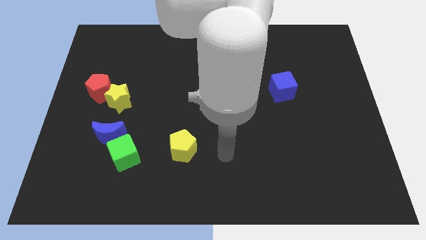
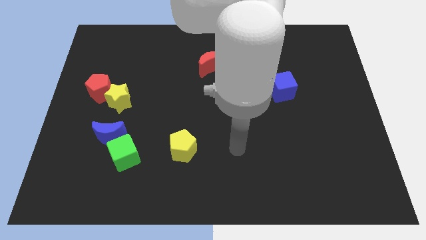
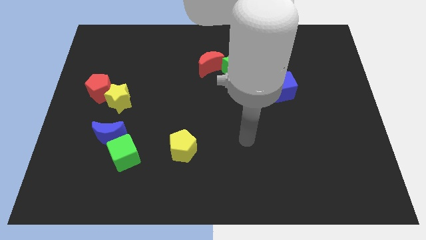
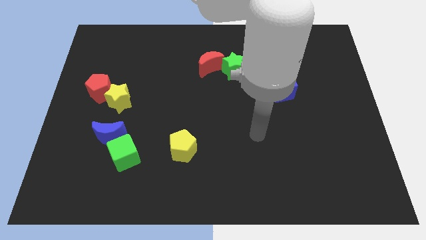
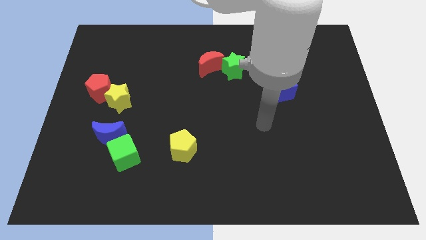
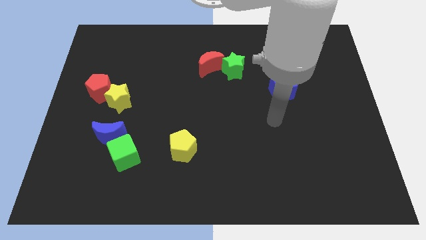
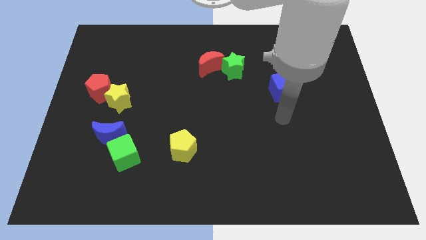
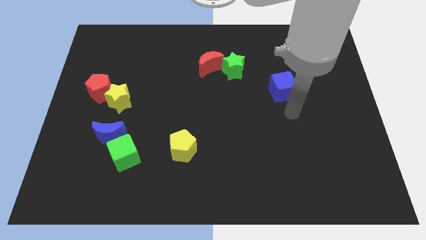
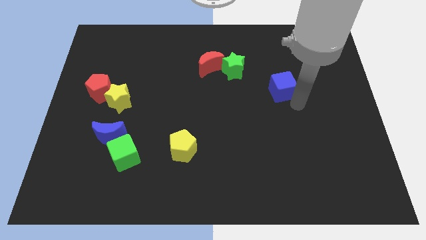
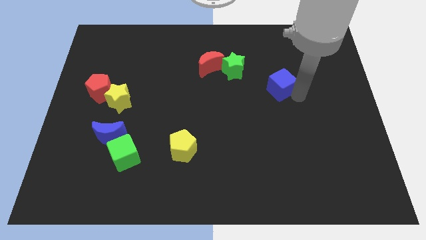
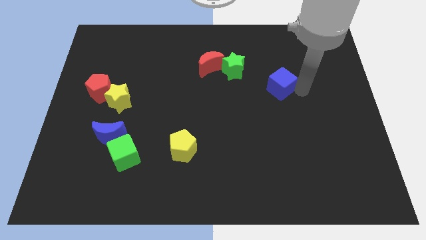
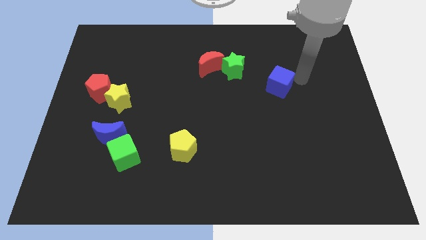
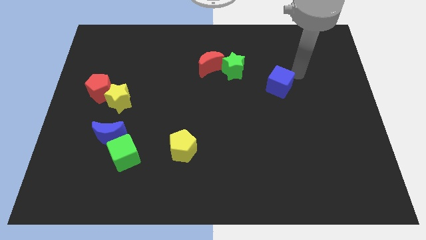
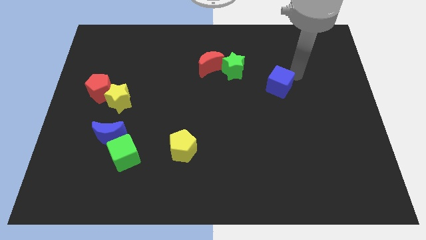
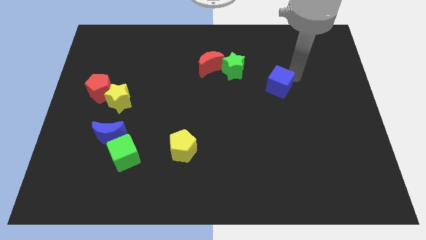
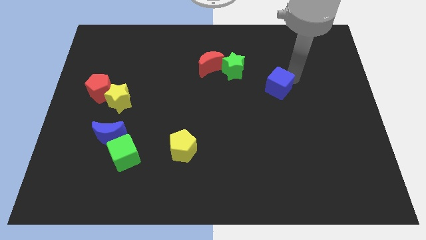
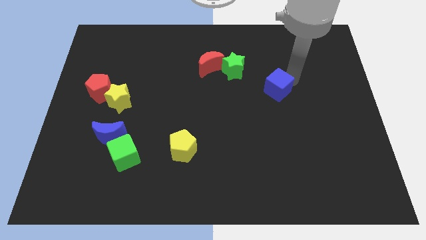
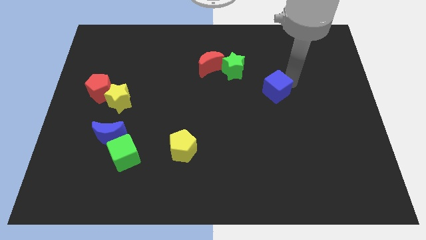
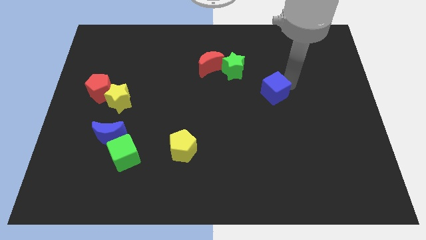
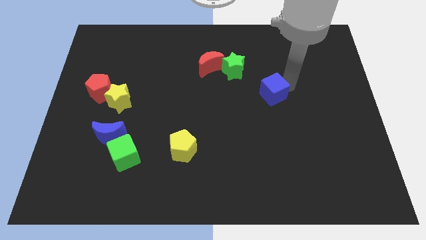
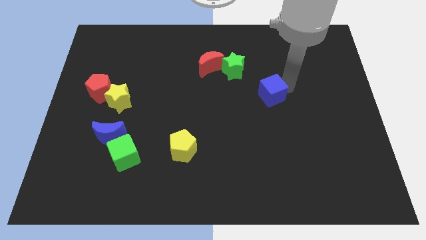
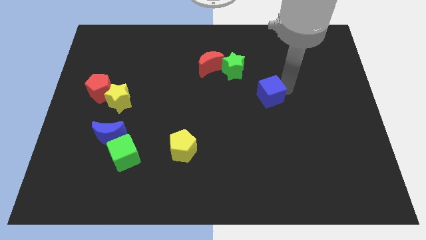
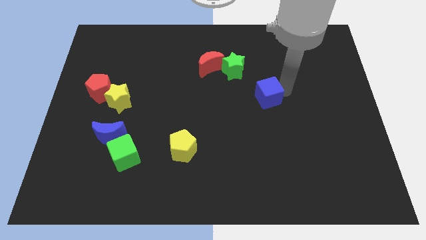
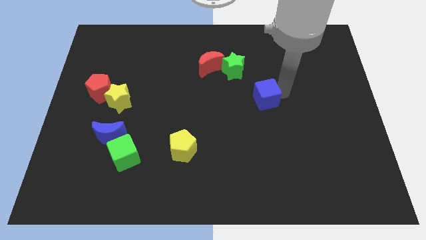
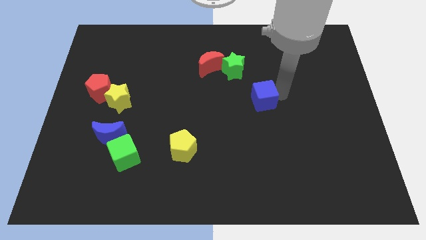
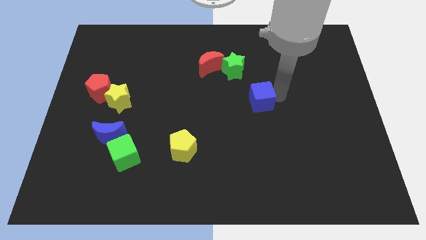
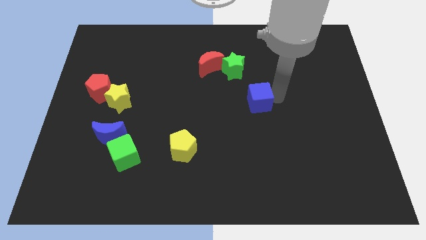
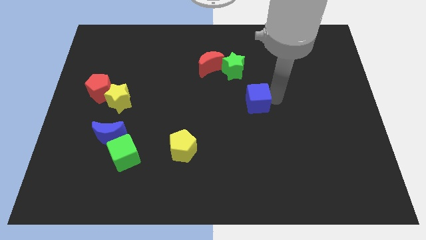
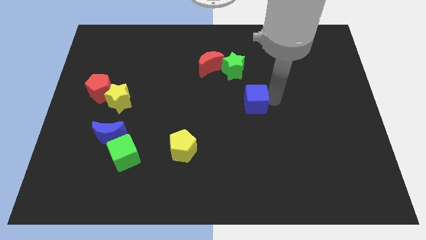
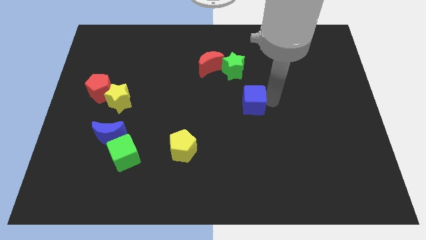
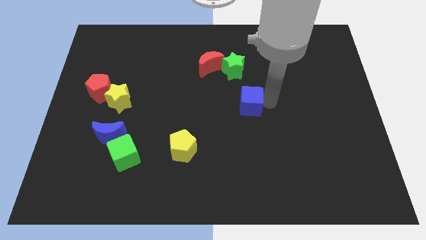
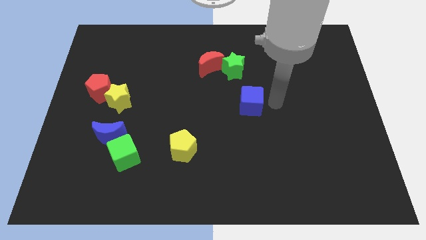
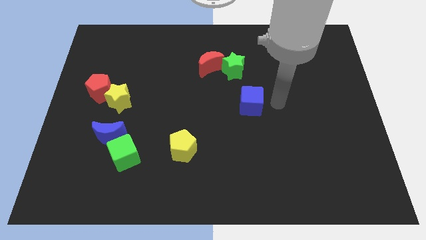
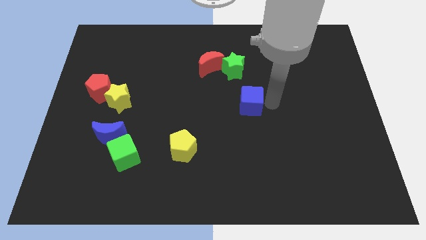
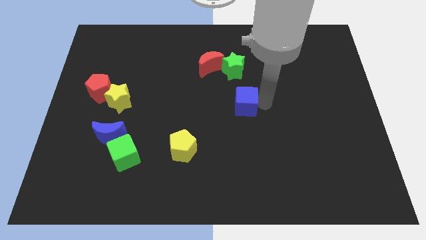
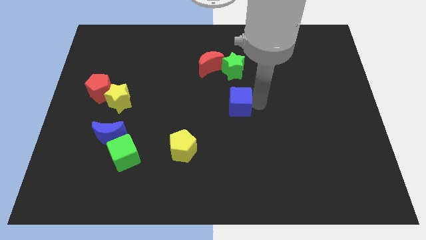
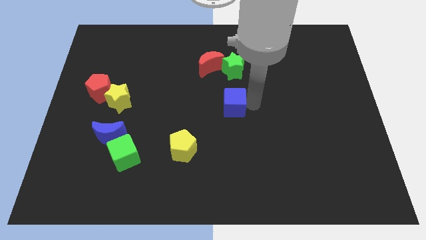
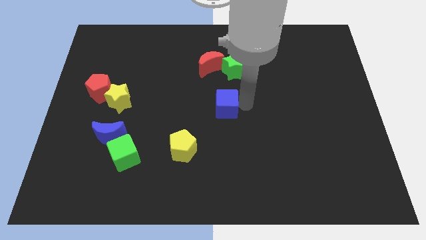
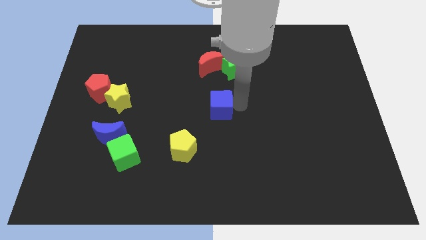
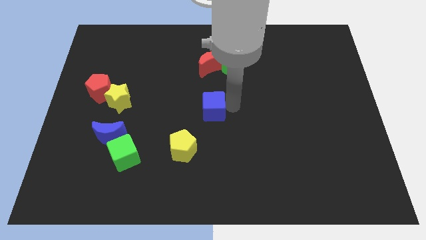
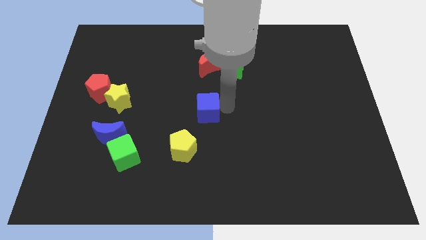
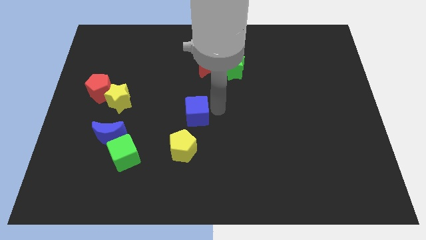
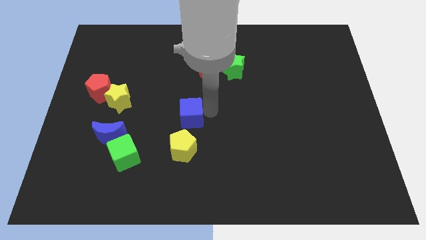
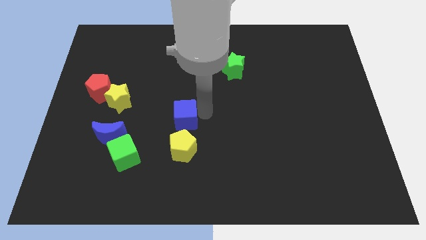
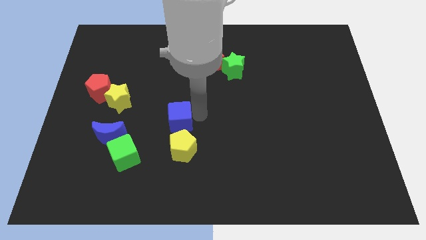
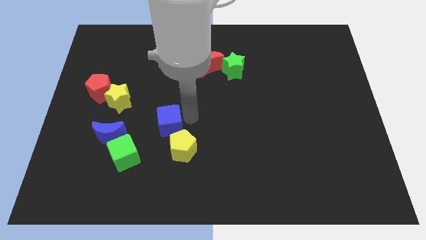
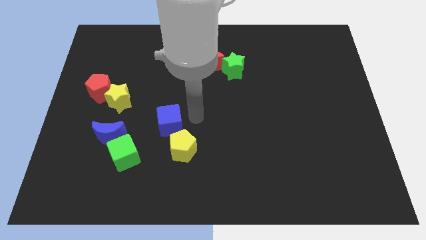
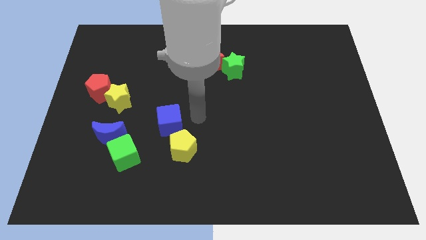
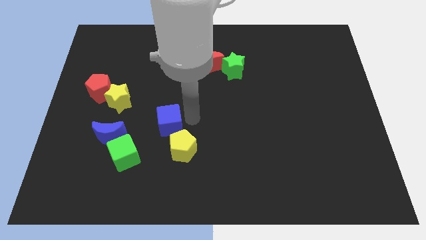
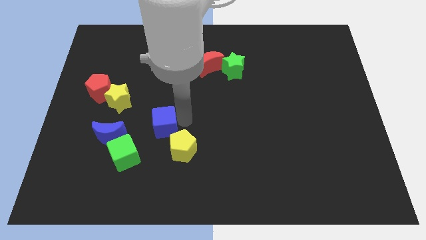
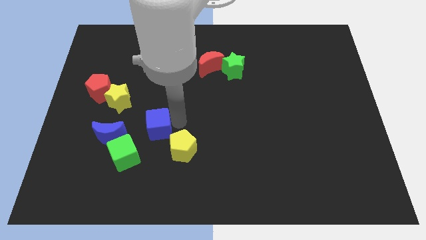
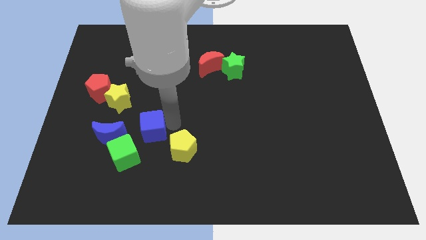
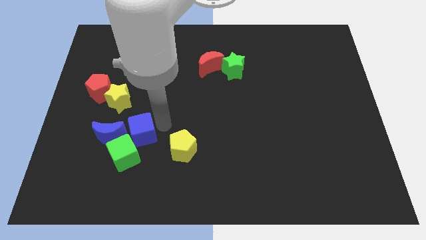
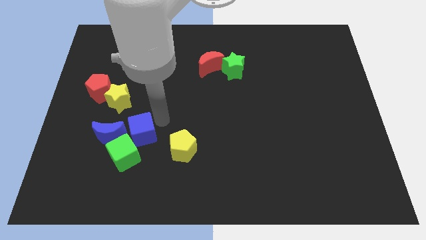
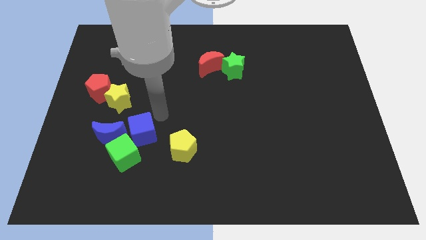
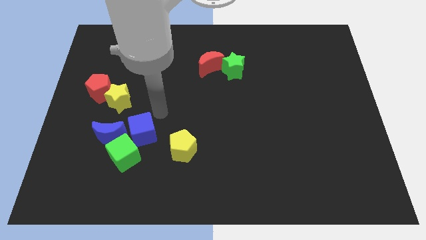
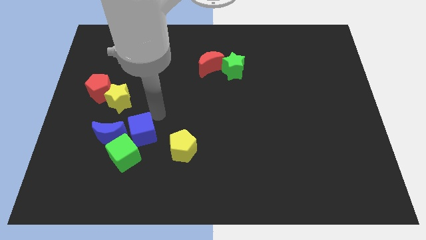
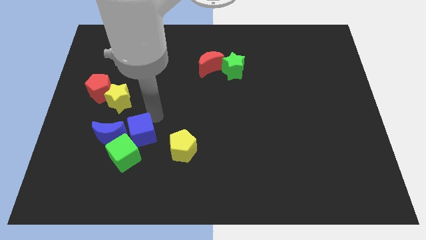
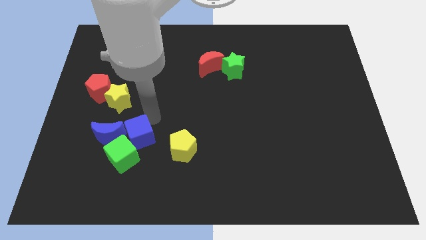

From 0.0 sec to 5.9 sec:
move the blue cube close to the green cube
